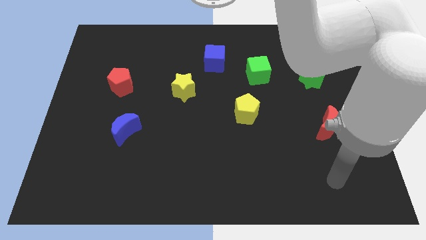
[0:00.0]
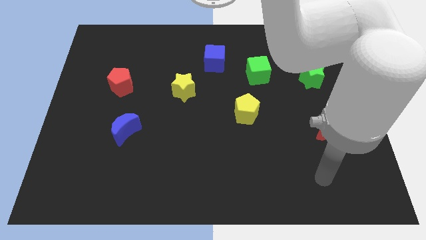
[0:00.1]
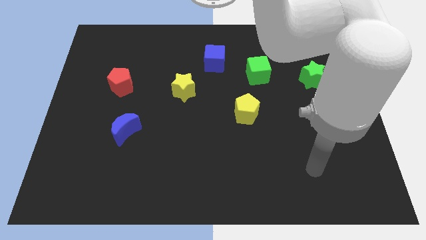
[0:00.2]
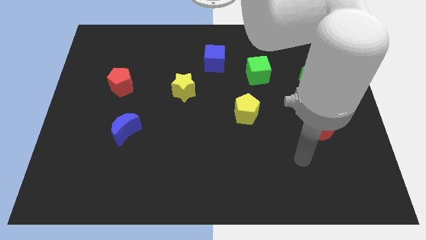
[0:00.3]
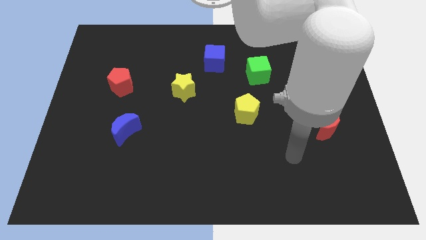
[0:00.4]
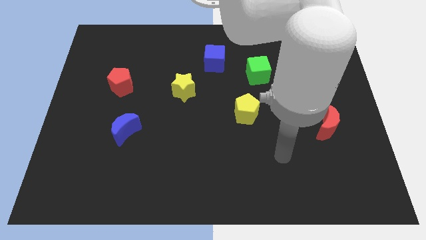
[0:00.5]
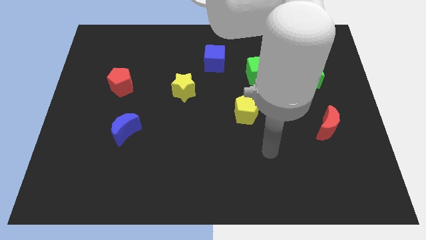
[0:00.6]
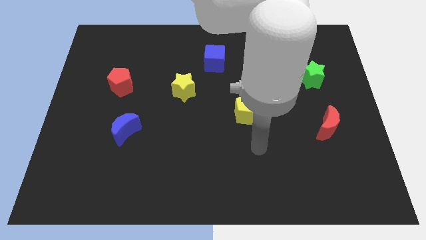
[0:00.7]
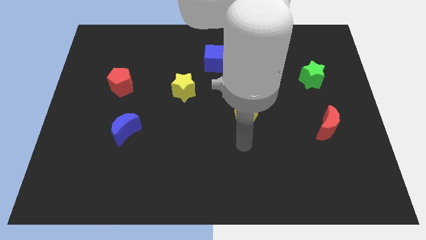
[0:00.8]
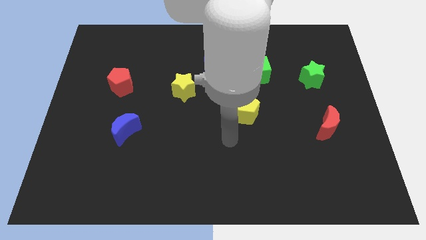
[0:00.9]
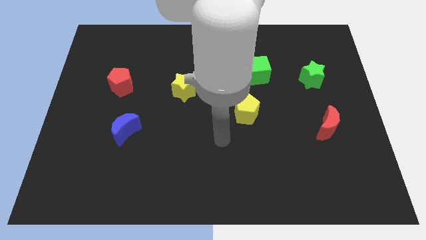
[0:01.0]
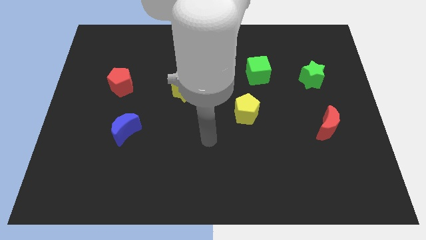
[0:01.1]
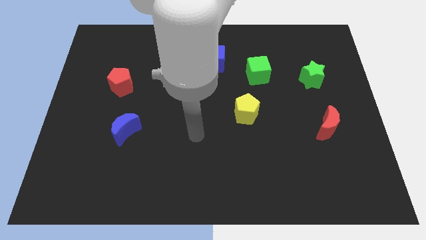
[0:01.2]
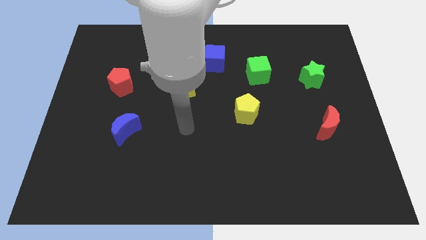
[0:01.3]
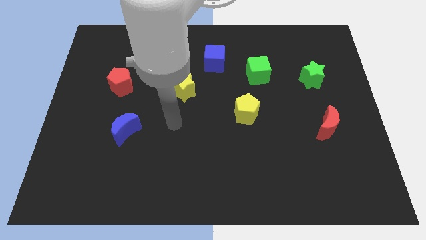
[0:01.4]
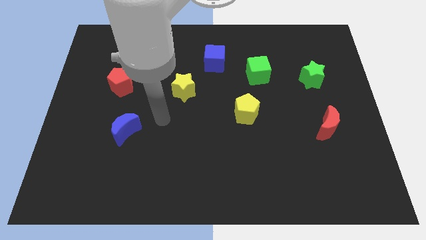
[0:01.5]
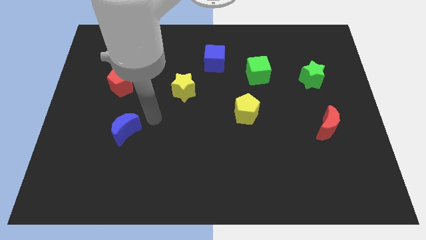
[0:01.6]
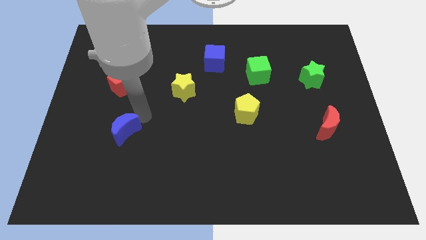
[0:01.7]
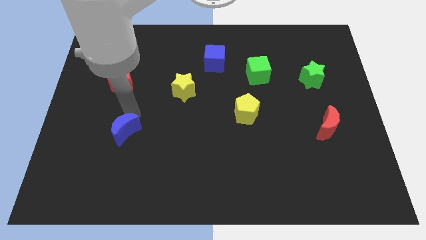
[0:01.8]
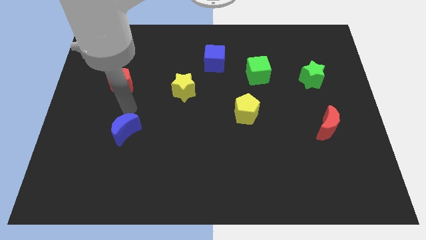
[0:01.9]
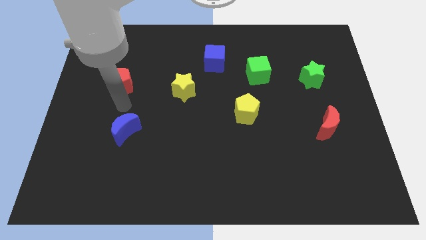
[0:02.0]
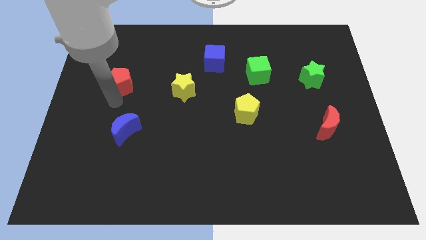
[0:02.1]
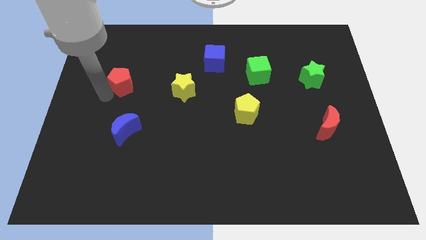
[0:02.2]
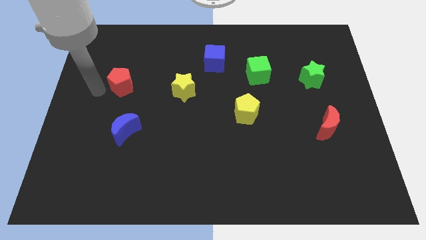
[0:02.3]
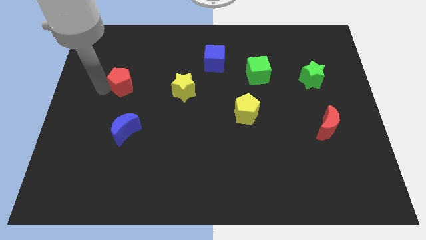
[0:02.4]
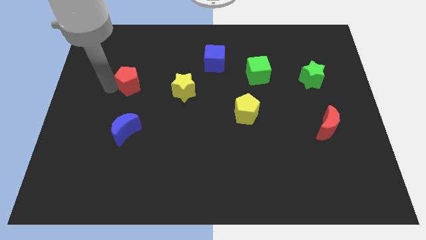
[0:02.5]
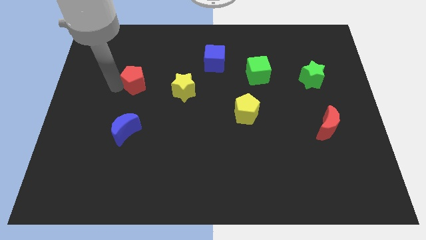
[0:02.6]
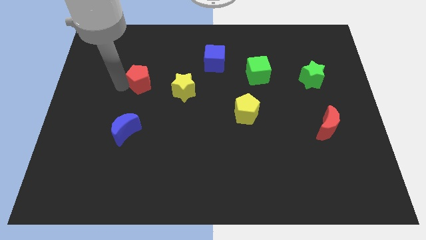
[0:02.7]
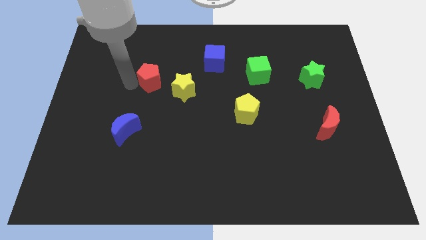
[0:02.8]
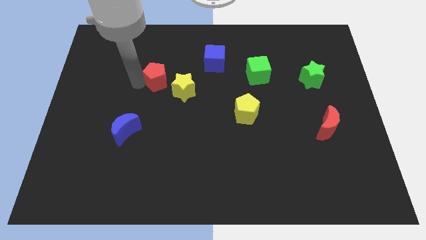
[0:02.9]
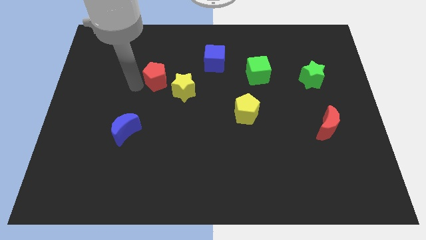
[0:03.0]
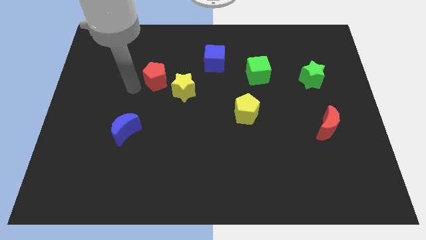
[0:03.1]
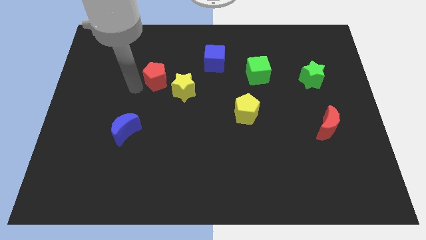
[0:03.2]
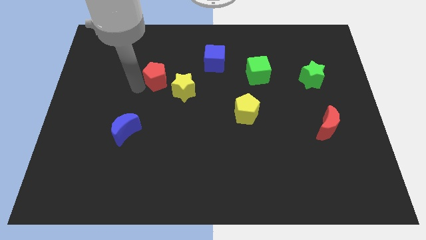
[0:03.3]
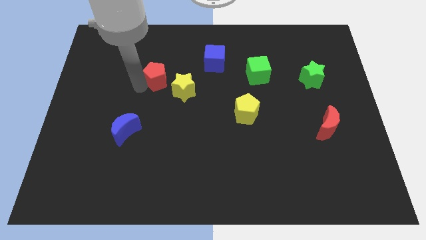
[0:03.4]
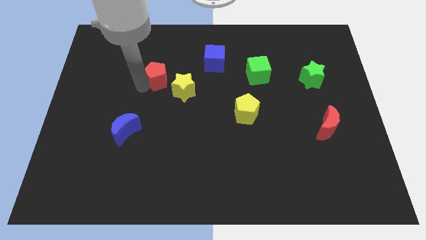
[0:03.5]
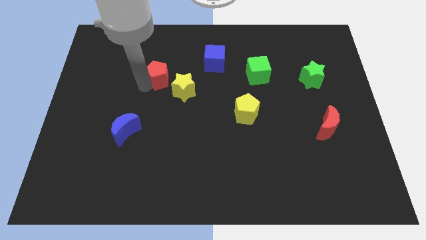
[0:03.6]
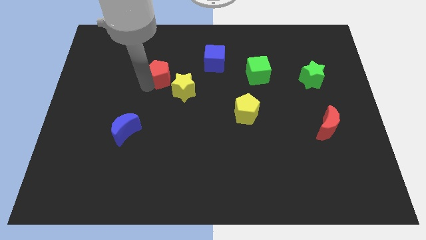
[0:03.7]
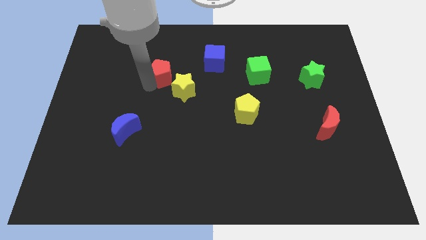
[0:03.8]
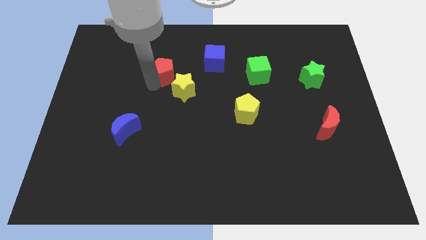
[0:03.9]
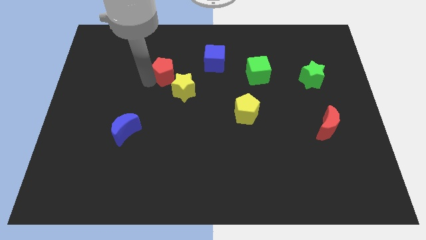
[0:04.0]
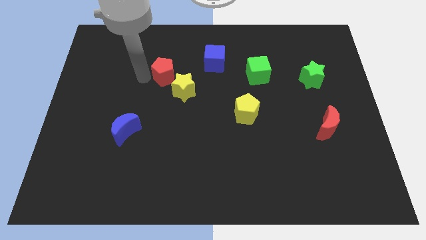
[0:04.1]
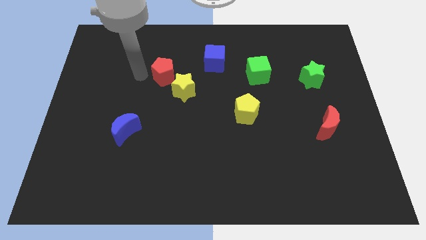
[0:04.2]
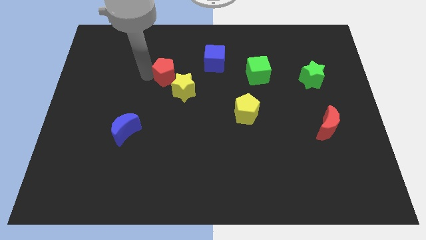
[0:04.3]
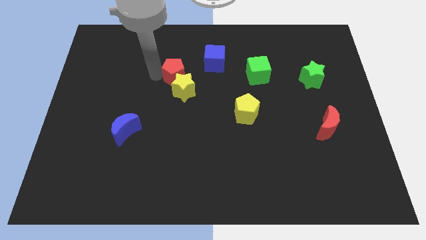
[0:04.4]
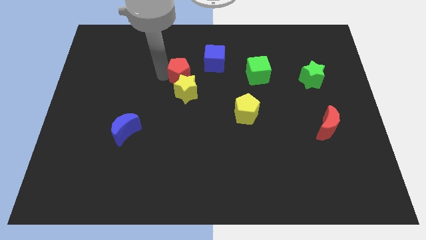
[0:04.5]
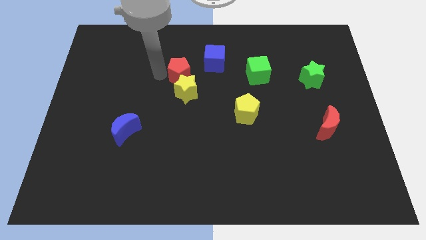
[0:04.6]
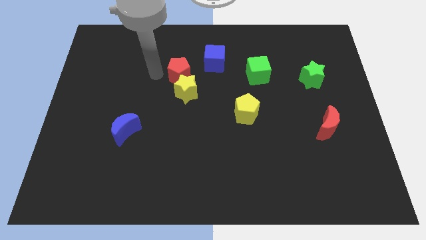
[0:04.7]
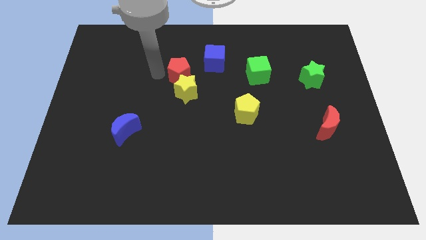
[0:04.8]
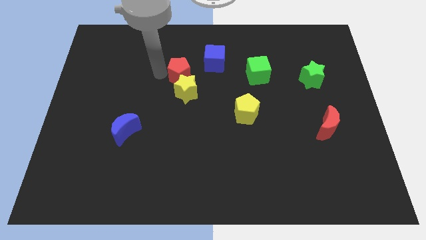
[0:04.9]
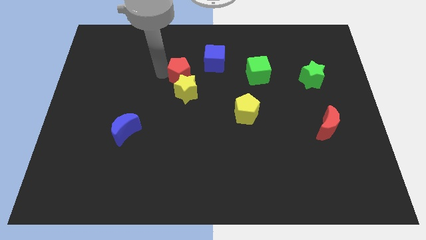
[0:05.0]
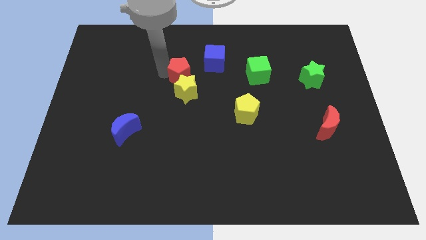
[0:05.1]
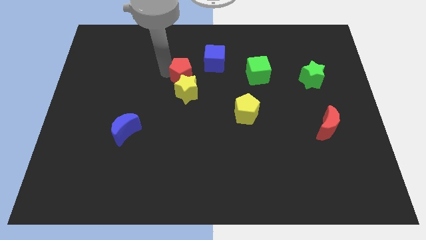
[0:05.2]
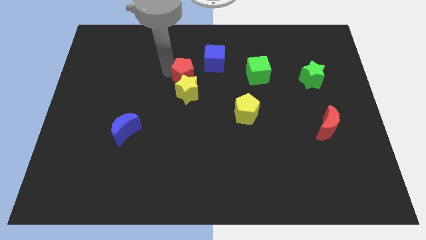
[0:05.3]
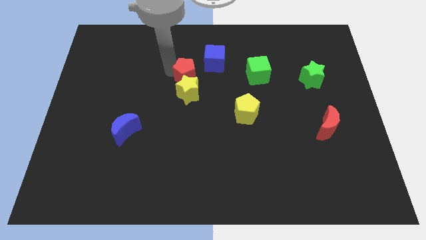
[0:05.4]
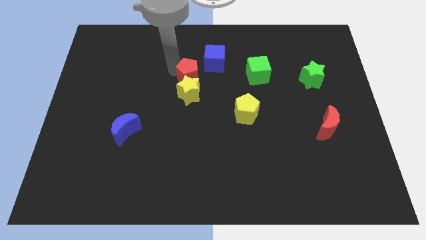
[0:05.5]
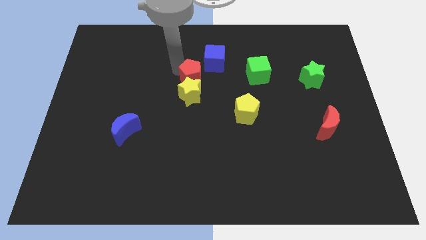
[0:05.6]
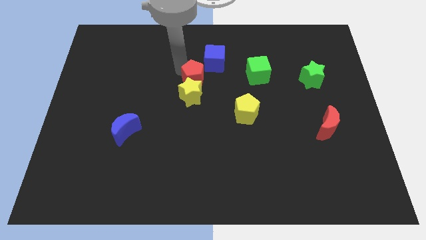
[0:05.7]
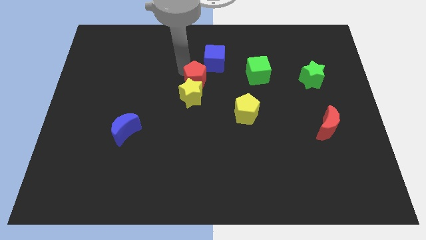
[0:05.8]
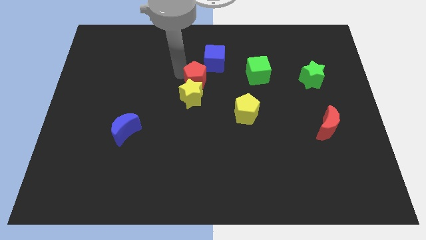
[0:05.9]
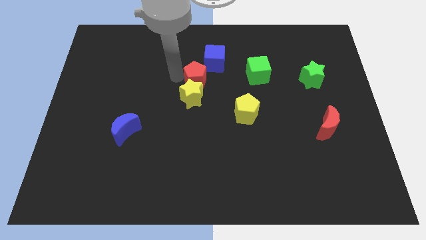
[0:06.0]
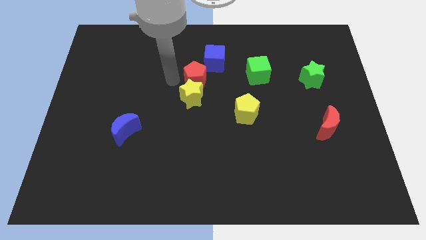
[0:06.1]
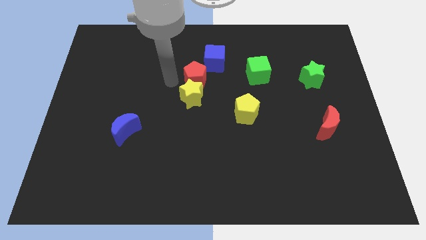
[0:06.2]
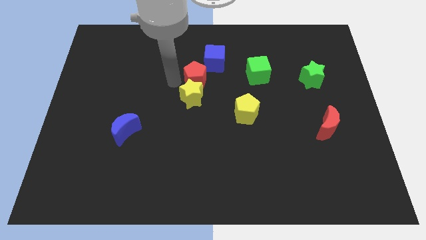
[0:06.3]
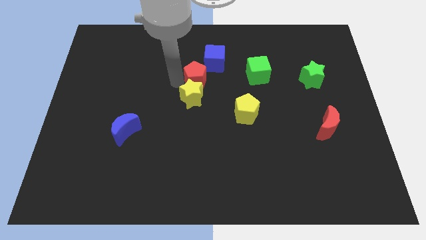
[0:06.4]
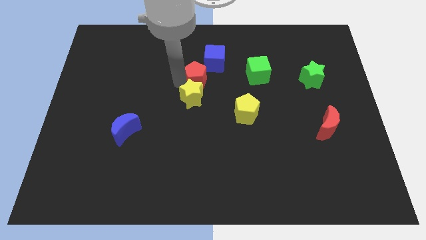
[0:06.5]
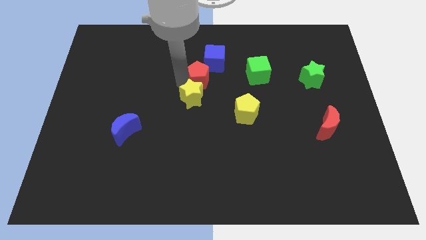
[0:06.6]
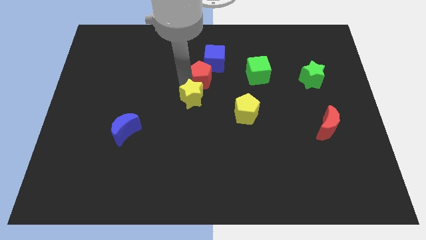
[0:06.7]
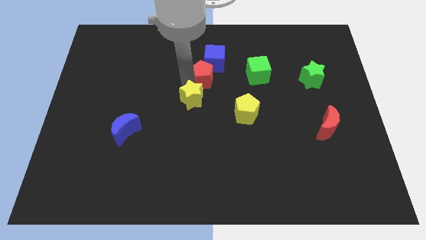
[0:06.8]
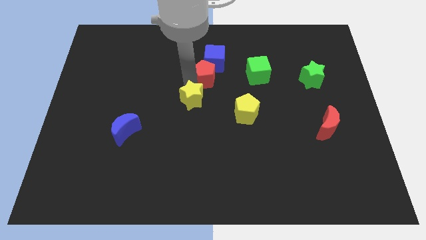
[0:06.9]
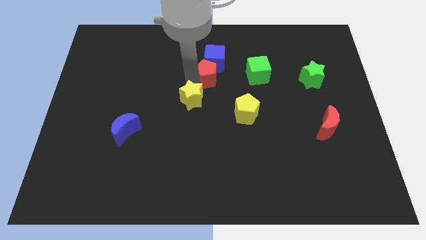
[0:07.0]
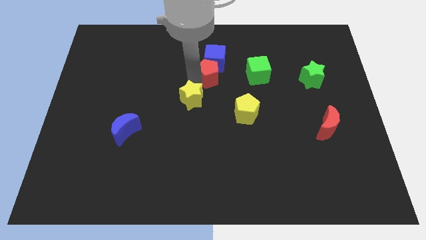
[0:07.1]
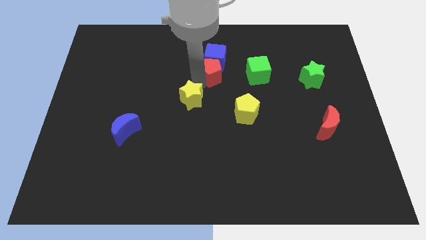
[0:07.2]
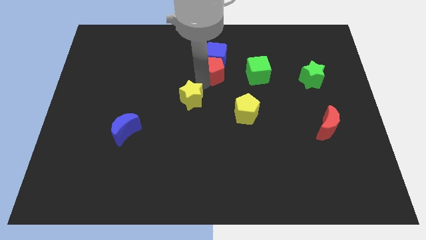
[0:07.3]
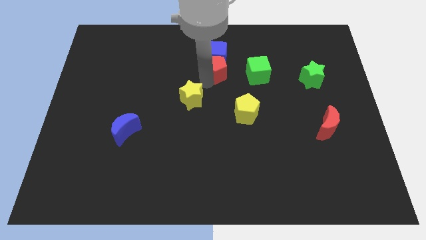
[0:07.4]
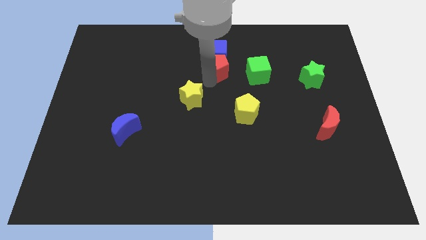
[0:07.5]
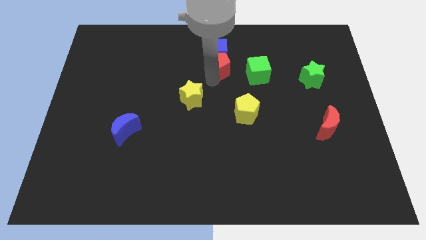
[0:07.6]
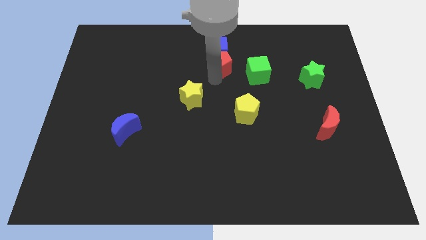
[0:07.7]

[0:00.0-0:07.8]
push the red pentagon diagonally up and to the left of the green cube
